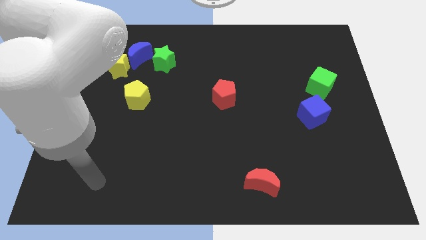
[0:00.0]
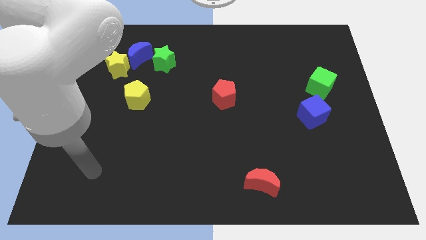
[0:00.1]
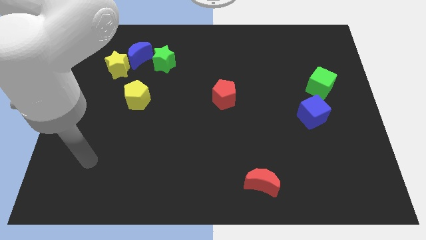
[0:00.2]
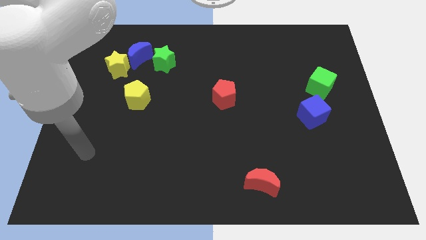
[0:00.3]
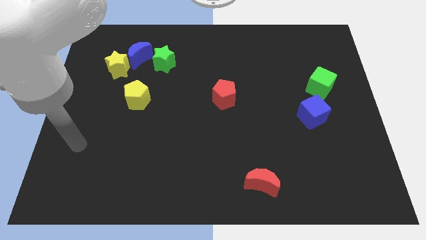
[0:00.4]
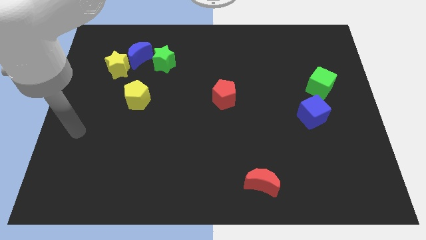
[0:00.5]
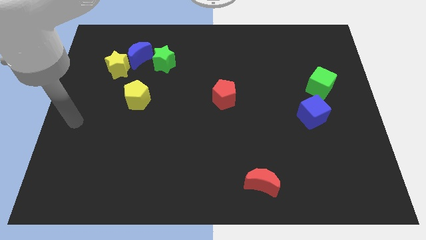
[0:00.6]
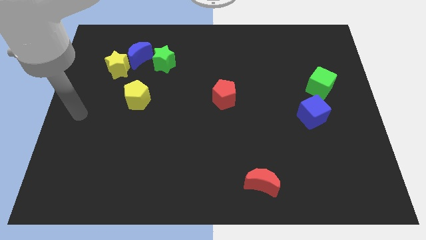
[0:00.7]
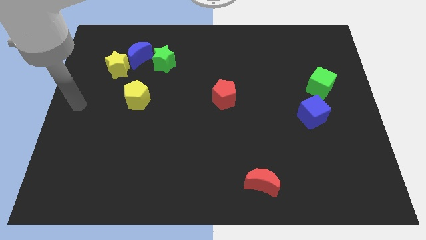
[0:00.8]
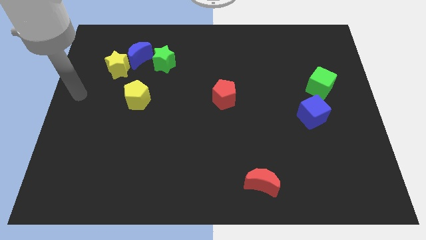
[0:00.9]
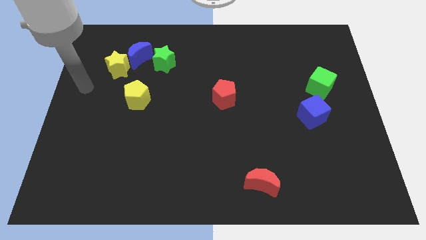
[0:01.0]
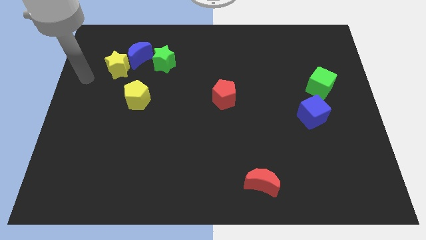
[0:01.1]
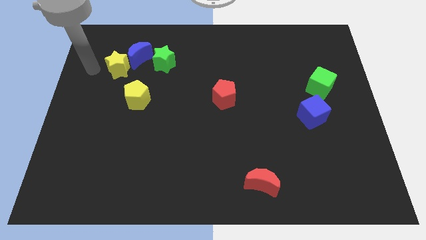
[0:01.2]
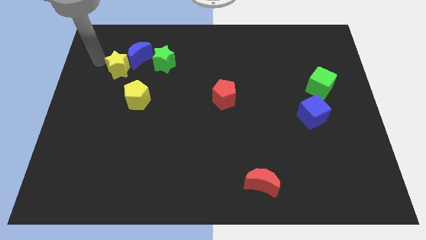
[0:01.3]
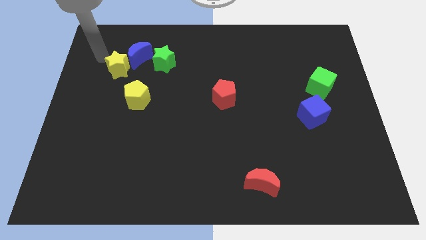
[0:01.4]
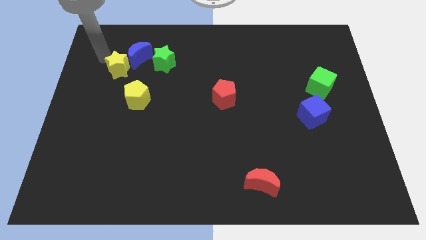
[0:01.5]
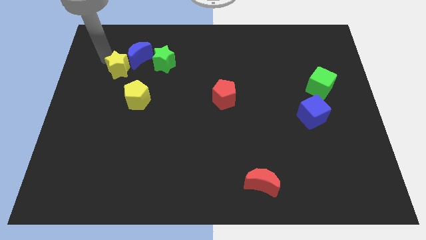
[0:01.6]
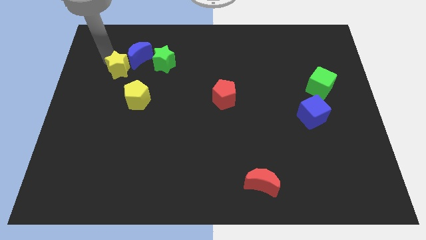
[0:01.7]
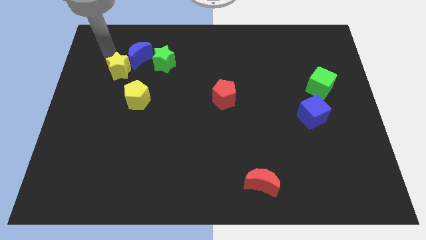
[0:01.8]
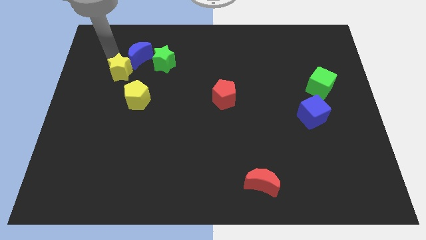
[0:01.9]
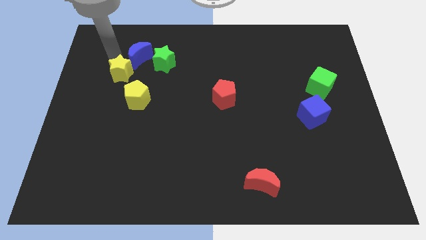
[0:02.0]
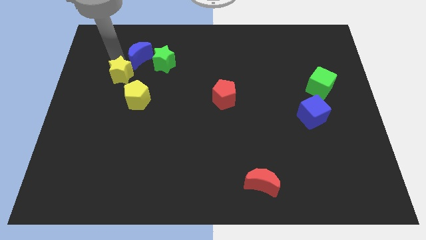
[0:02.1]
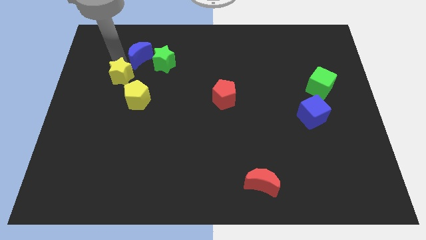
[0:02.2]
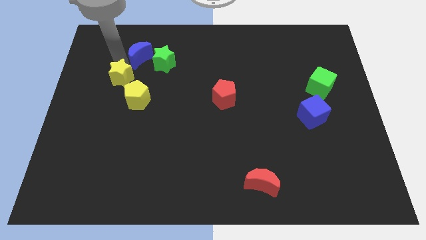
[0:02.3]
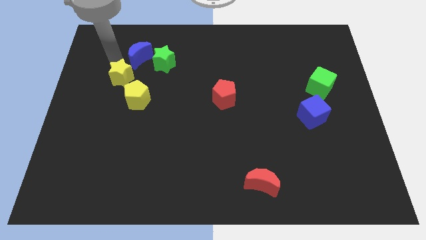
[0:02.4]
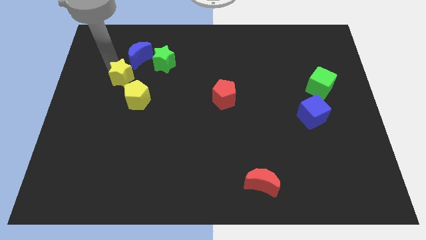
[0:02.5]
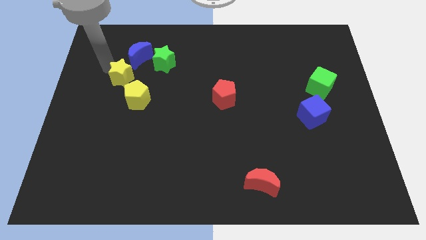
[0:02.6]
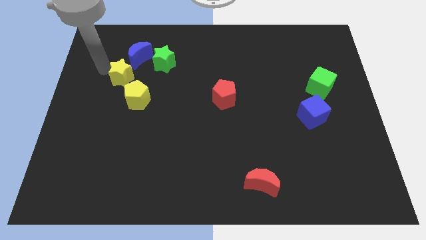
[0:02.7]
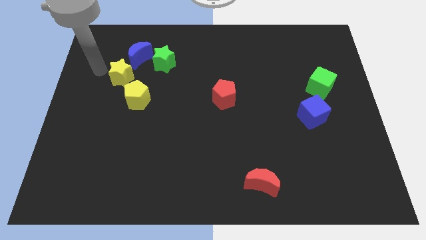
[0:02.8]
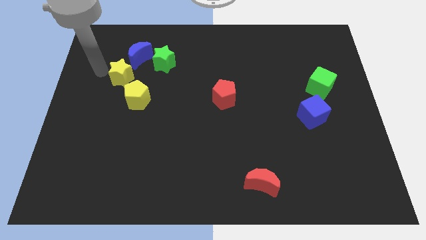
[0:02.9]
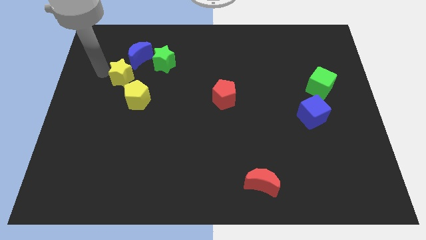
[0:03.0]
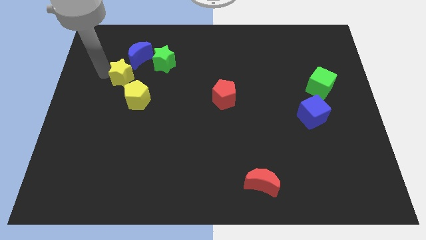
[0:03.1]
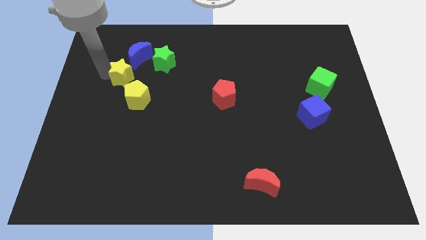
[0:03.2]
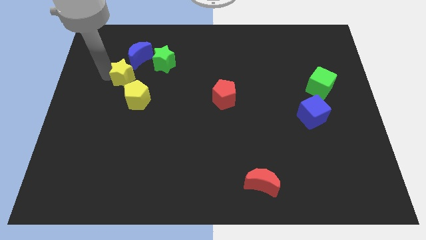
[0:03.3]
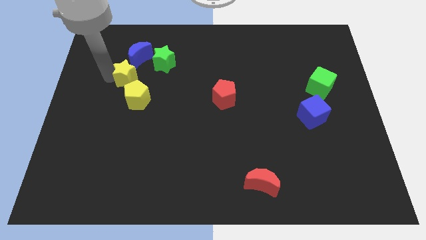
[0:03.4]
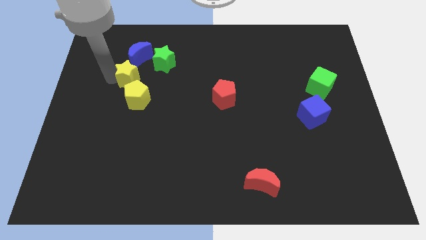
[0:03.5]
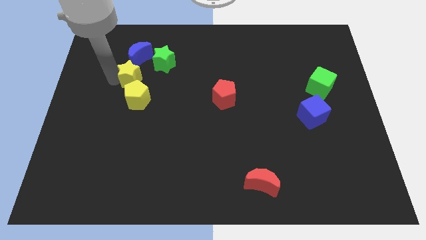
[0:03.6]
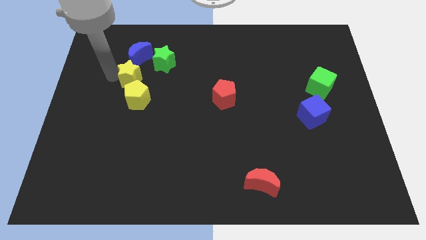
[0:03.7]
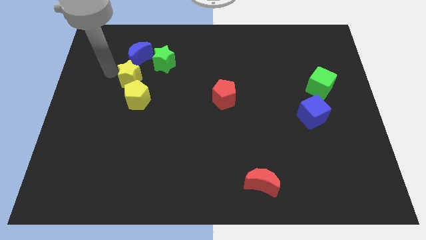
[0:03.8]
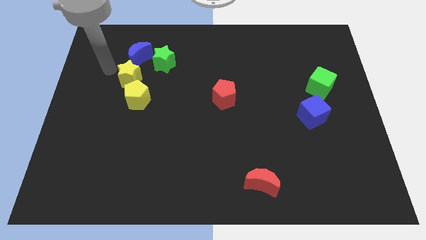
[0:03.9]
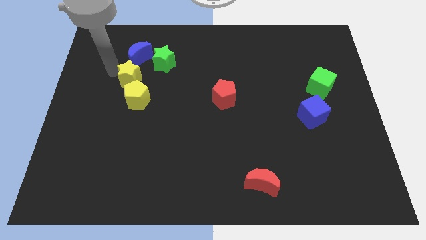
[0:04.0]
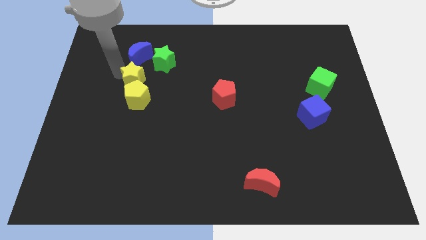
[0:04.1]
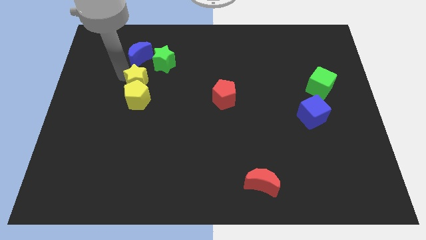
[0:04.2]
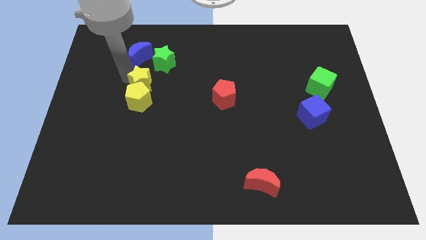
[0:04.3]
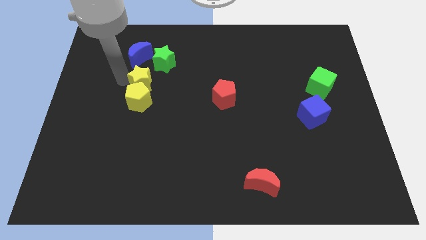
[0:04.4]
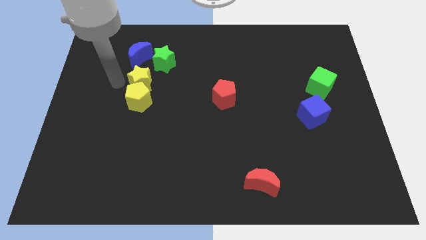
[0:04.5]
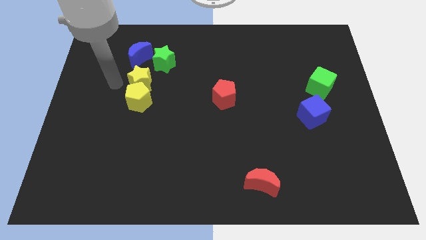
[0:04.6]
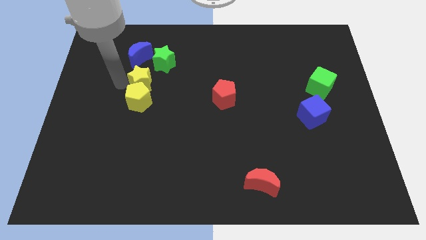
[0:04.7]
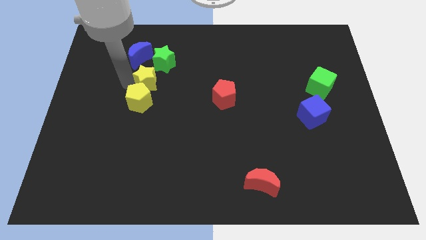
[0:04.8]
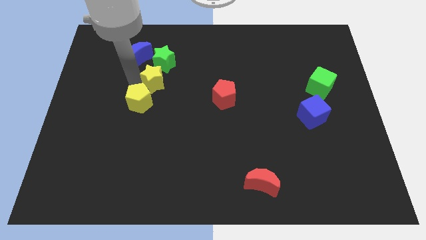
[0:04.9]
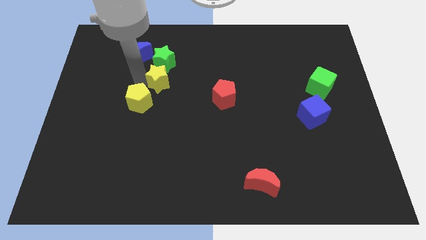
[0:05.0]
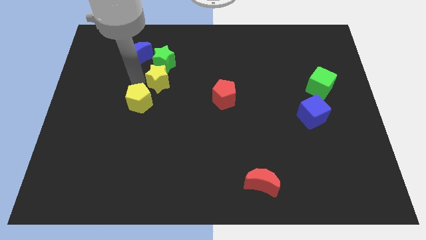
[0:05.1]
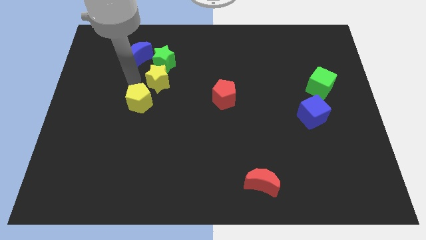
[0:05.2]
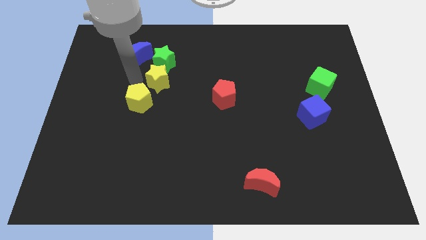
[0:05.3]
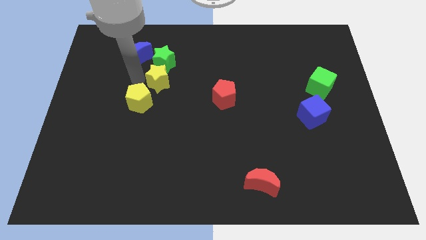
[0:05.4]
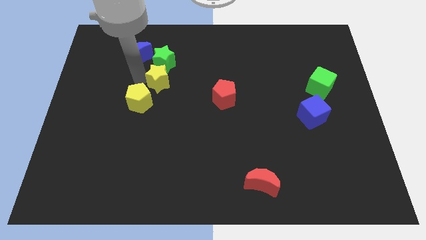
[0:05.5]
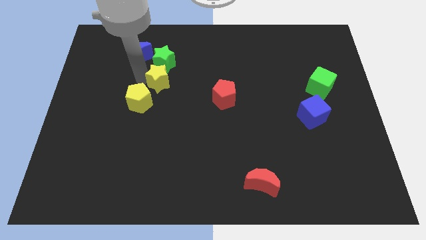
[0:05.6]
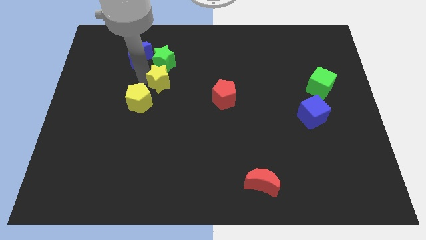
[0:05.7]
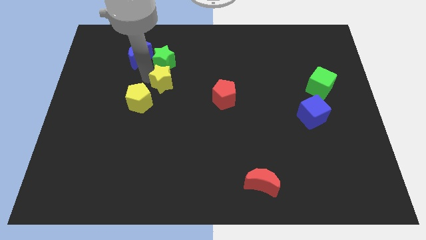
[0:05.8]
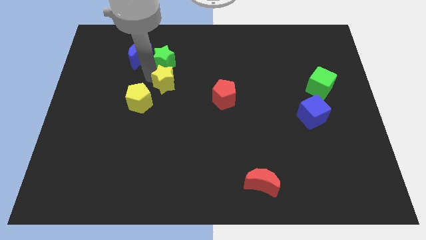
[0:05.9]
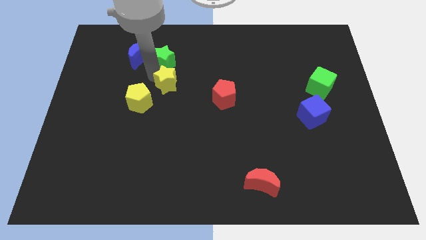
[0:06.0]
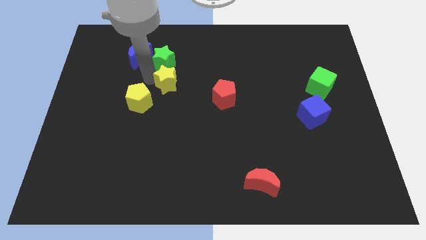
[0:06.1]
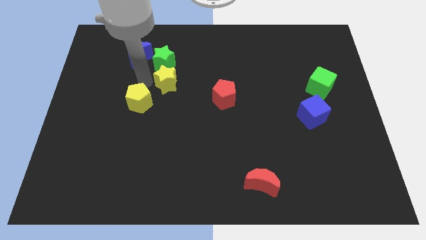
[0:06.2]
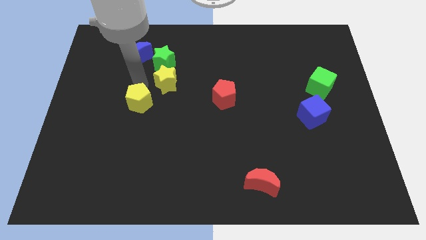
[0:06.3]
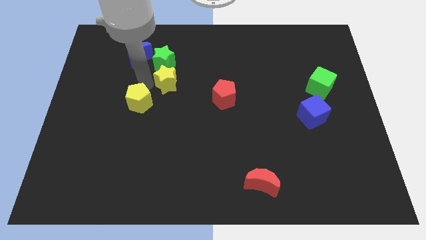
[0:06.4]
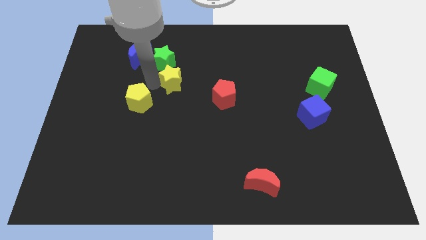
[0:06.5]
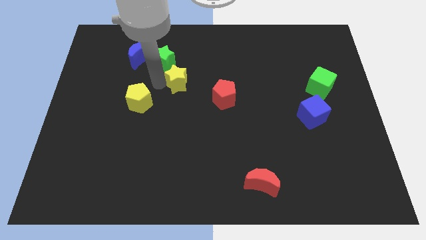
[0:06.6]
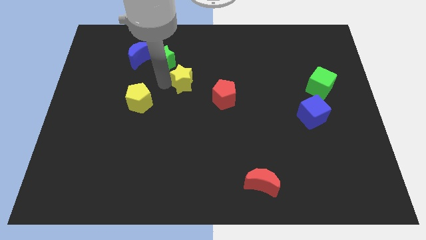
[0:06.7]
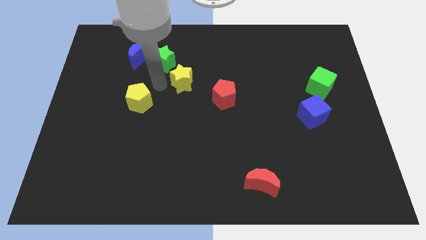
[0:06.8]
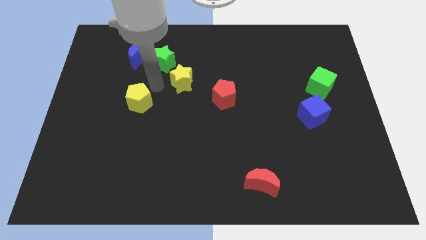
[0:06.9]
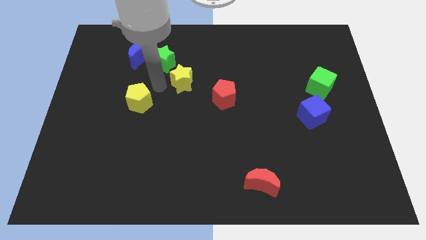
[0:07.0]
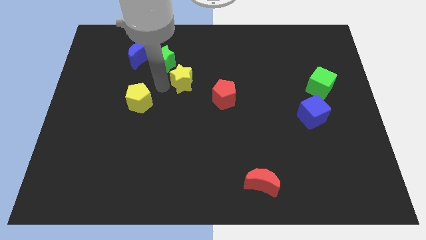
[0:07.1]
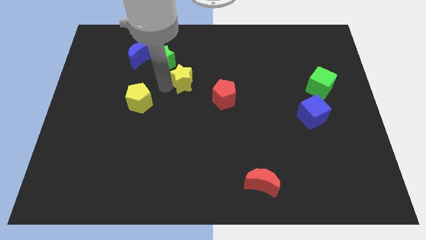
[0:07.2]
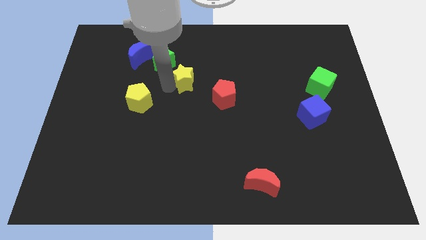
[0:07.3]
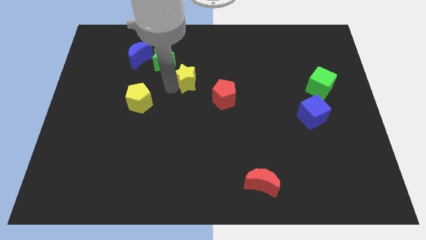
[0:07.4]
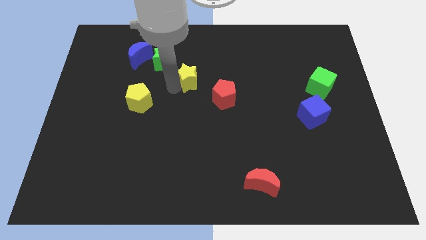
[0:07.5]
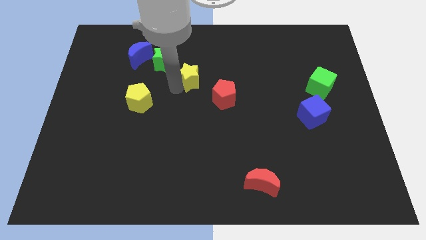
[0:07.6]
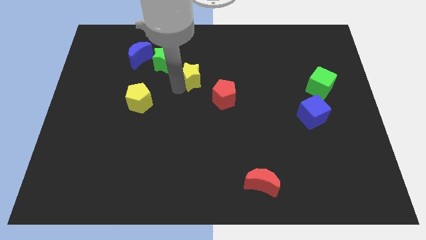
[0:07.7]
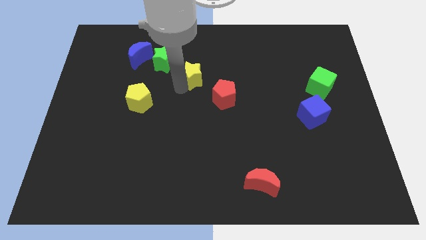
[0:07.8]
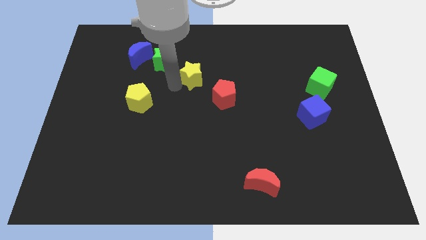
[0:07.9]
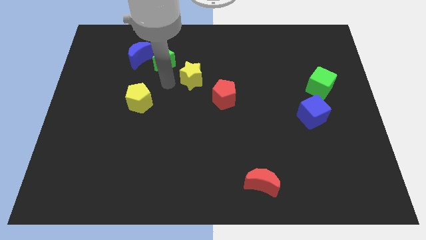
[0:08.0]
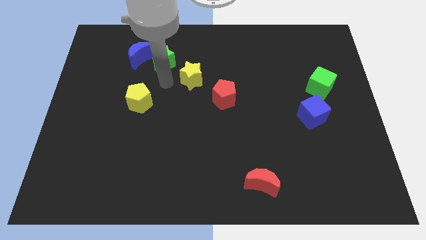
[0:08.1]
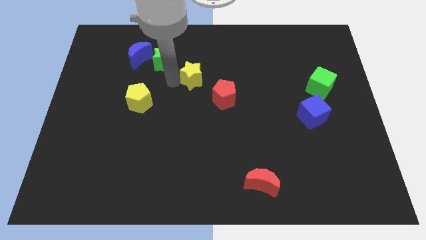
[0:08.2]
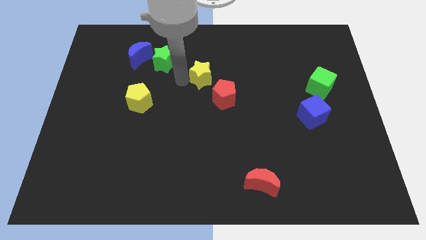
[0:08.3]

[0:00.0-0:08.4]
push the yellow star right
